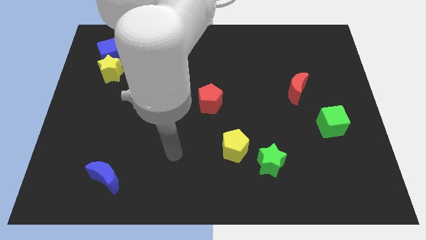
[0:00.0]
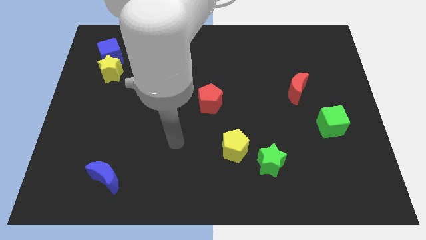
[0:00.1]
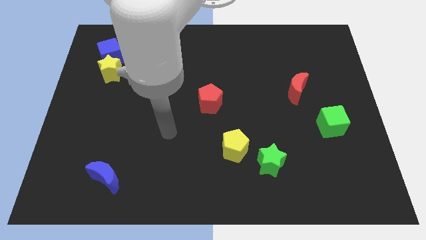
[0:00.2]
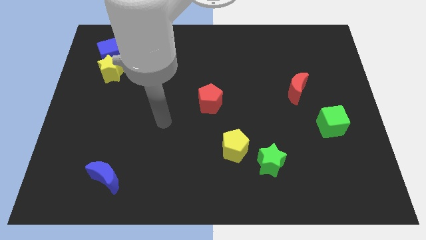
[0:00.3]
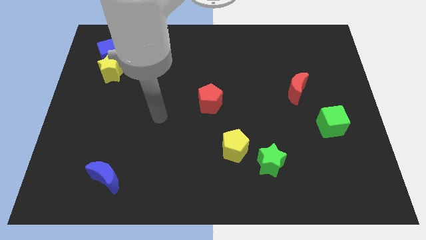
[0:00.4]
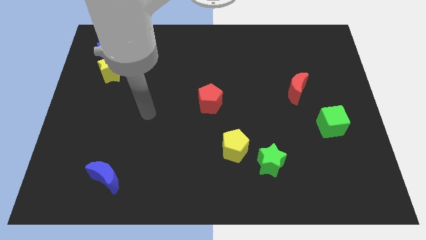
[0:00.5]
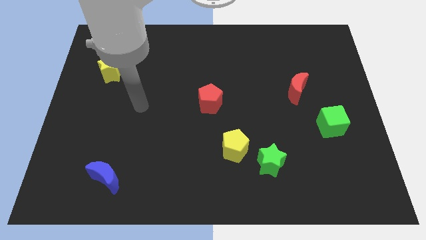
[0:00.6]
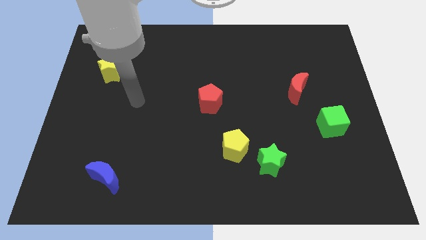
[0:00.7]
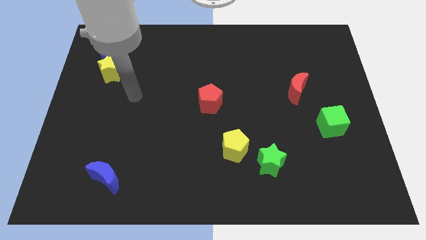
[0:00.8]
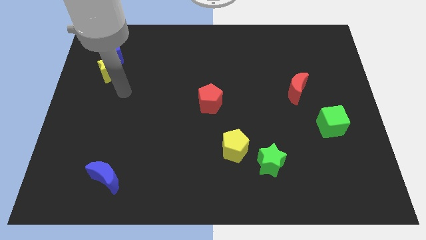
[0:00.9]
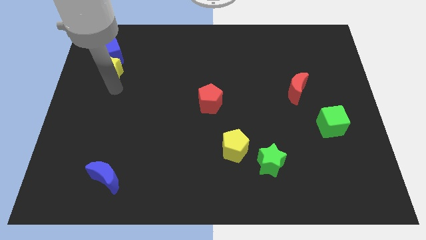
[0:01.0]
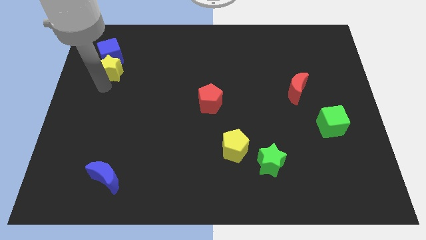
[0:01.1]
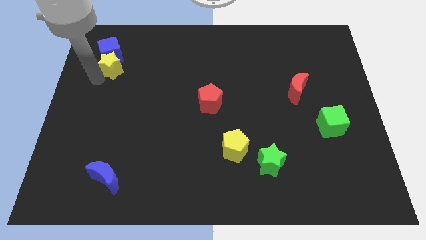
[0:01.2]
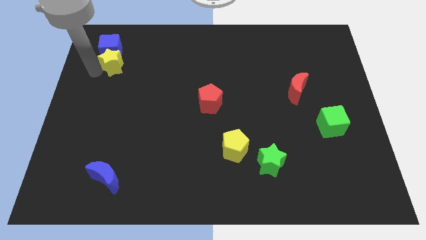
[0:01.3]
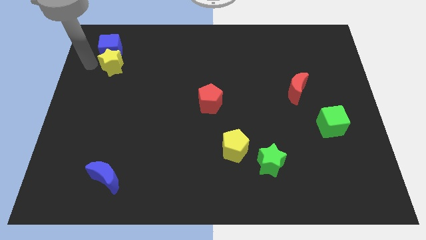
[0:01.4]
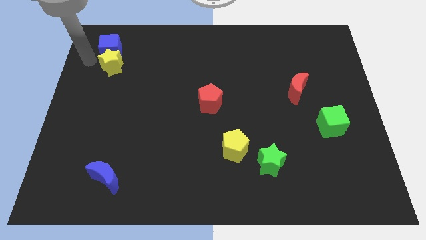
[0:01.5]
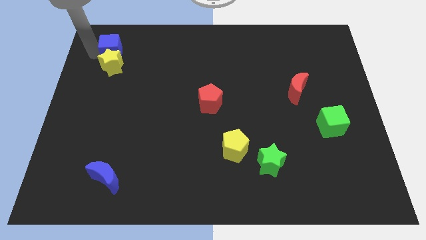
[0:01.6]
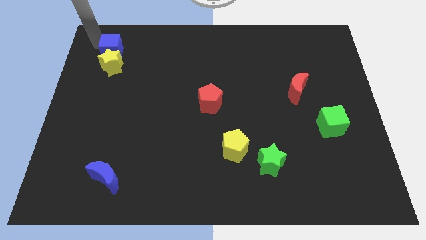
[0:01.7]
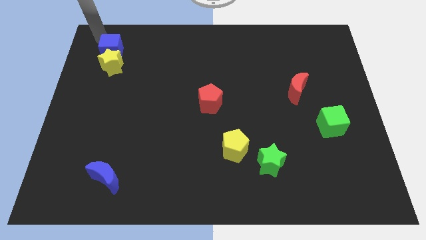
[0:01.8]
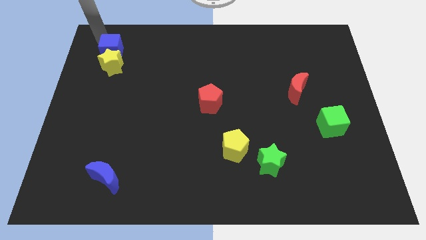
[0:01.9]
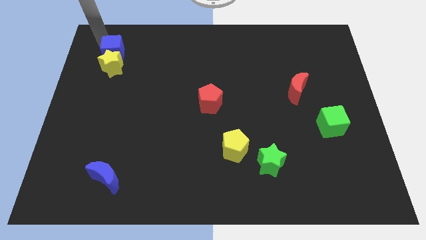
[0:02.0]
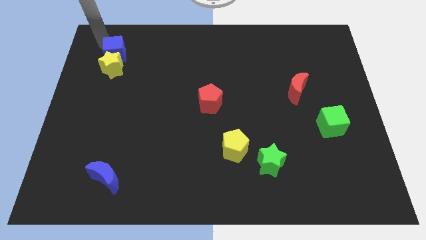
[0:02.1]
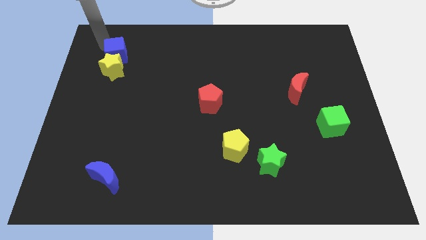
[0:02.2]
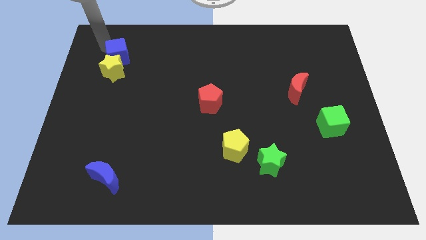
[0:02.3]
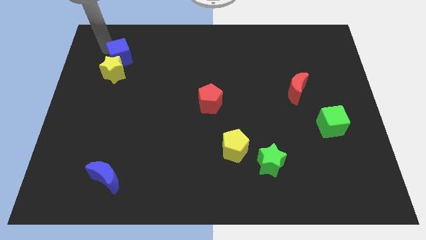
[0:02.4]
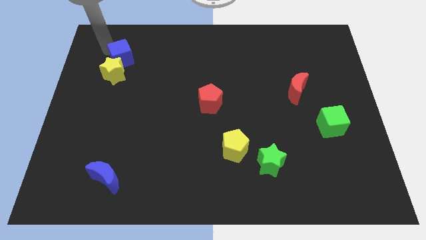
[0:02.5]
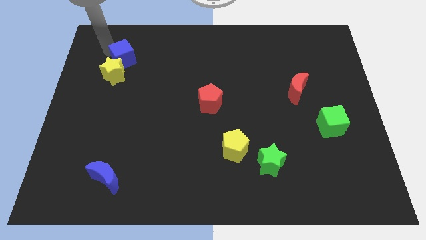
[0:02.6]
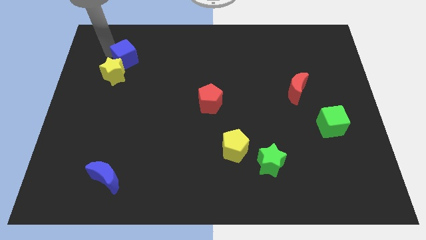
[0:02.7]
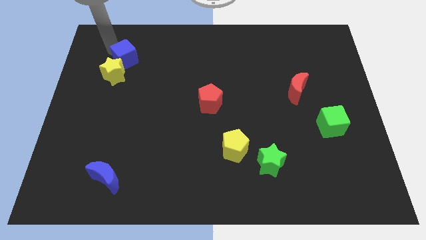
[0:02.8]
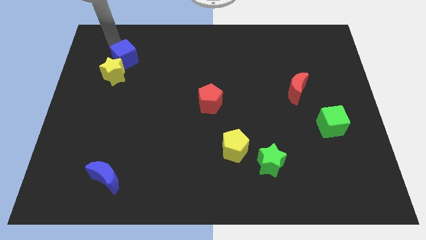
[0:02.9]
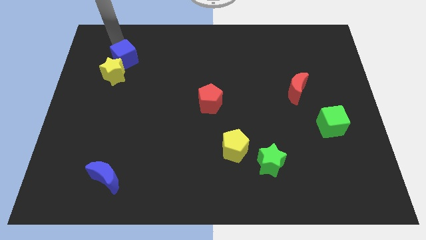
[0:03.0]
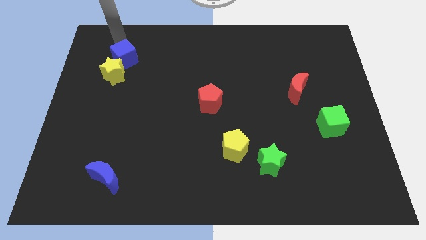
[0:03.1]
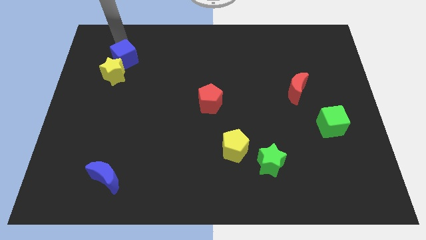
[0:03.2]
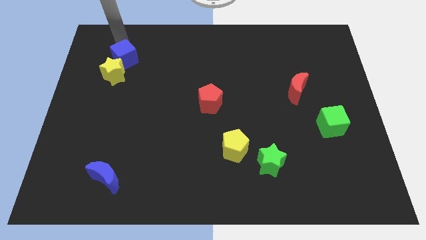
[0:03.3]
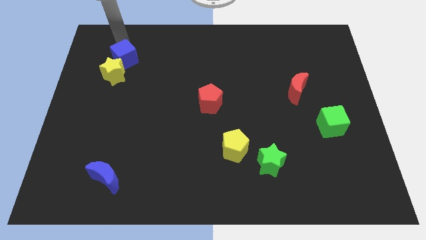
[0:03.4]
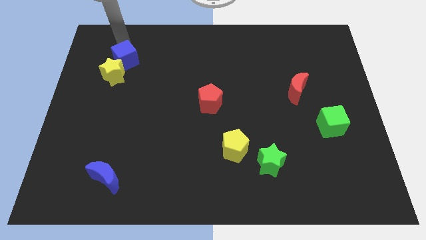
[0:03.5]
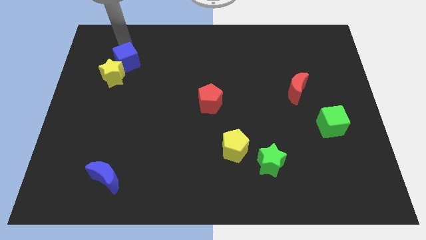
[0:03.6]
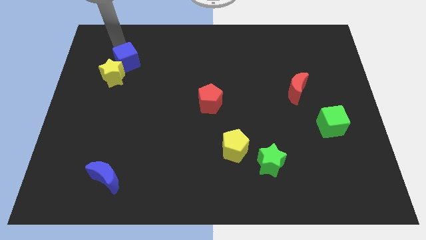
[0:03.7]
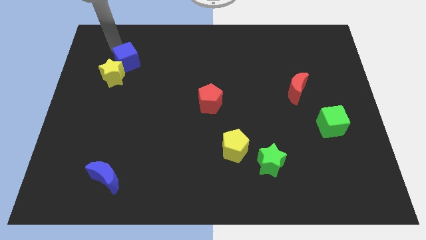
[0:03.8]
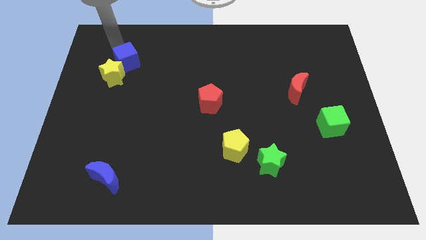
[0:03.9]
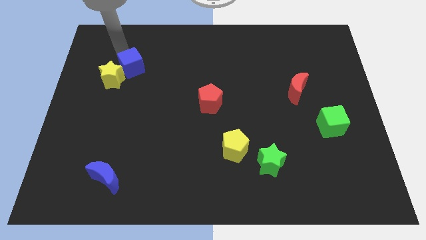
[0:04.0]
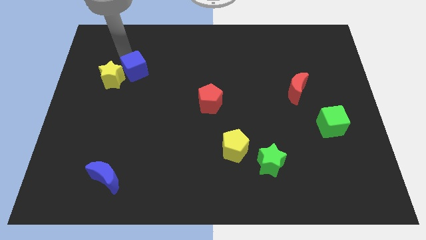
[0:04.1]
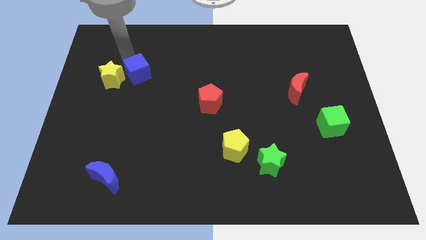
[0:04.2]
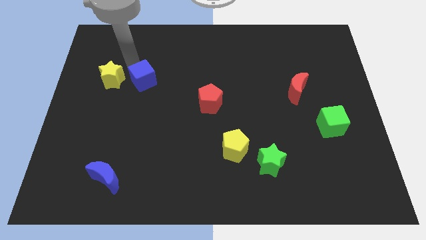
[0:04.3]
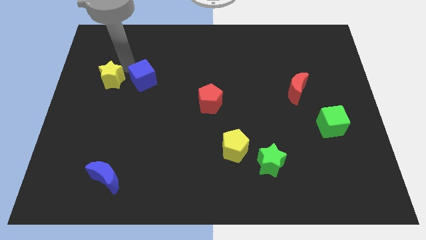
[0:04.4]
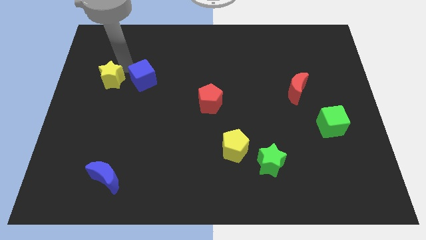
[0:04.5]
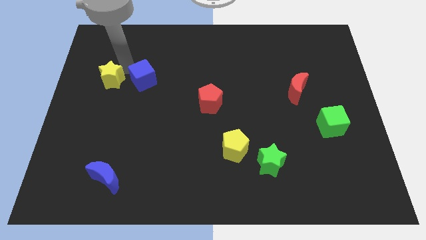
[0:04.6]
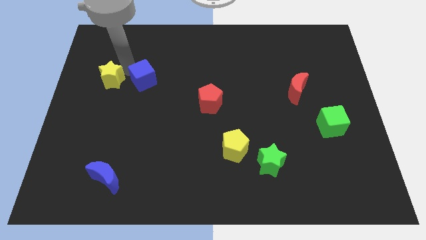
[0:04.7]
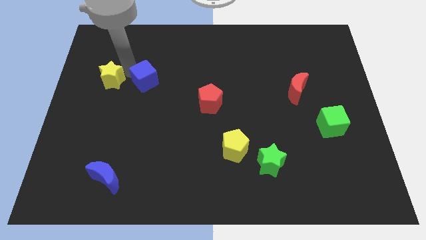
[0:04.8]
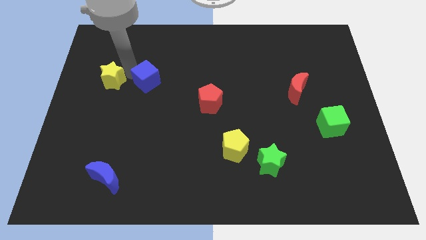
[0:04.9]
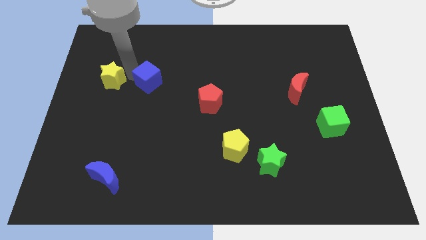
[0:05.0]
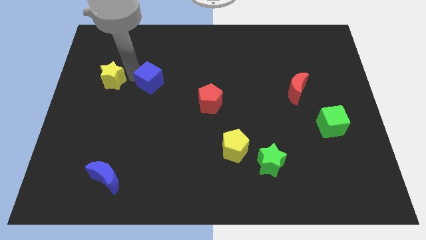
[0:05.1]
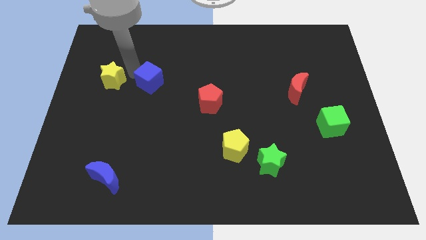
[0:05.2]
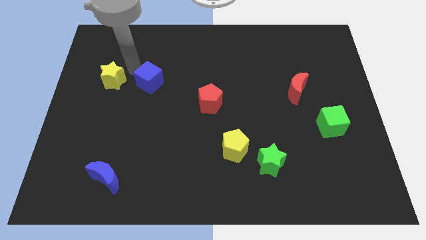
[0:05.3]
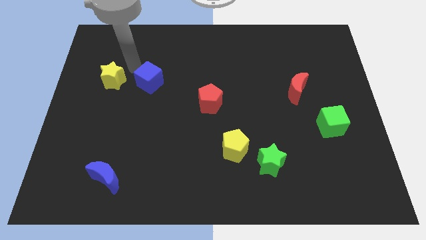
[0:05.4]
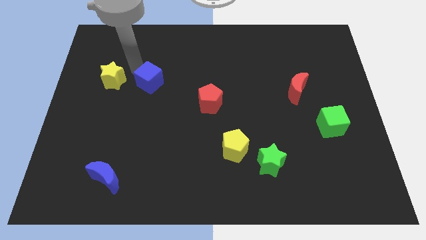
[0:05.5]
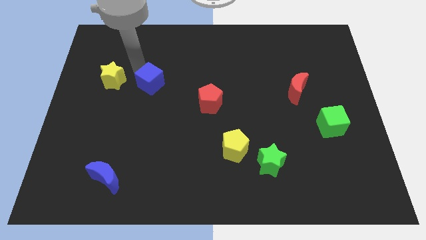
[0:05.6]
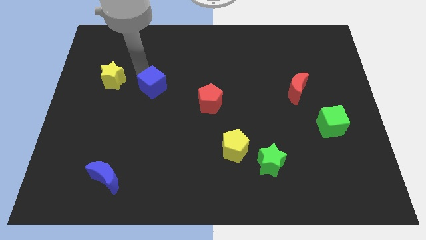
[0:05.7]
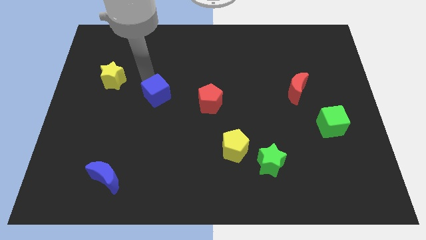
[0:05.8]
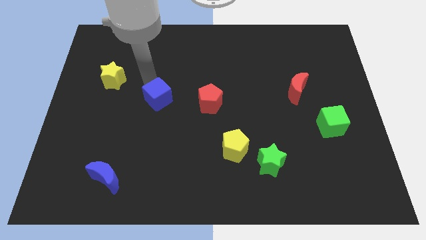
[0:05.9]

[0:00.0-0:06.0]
move the blue cube downwards and right diagonally

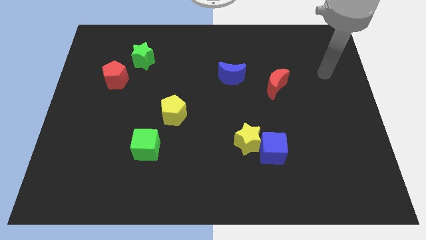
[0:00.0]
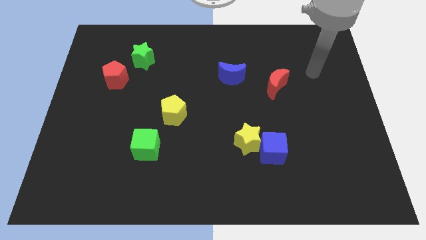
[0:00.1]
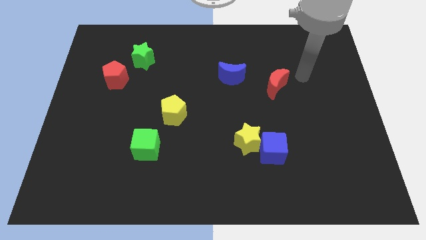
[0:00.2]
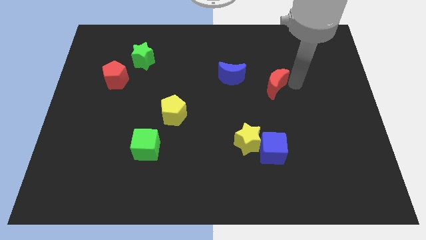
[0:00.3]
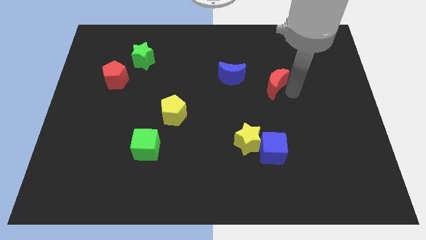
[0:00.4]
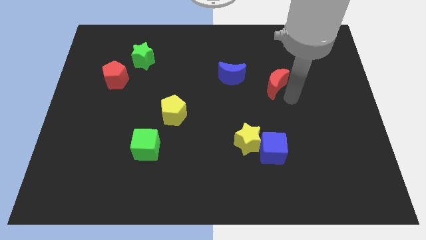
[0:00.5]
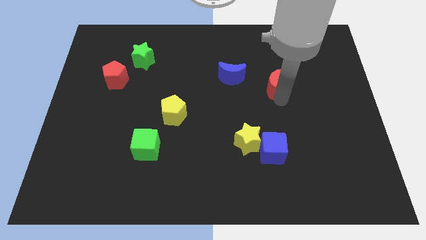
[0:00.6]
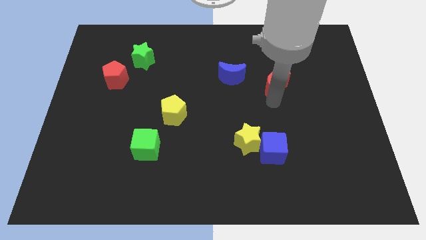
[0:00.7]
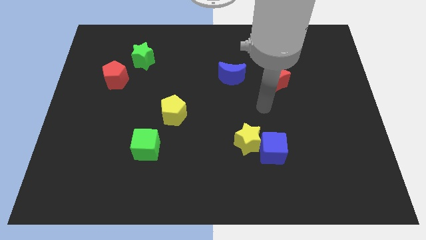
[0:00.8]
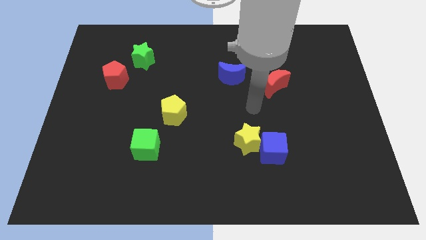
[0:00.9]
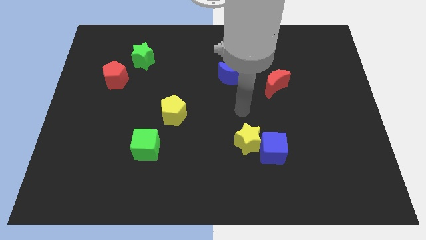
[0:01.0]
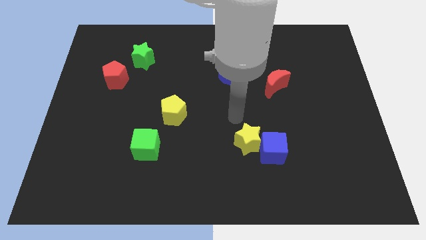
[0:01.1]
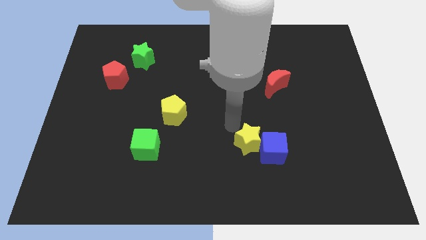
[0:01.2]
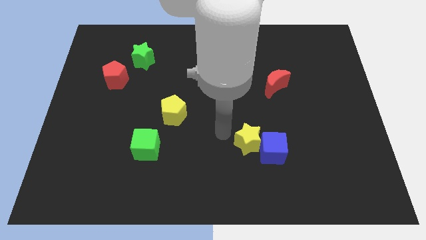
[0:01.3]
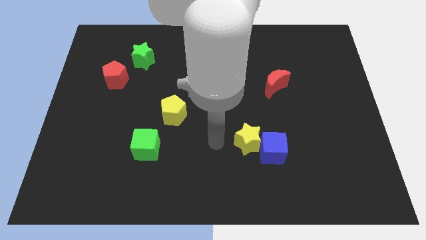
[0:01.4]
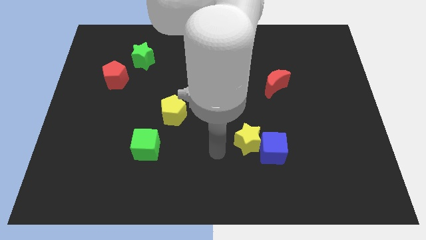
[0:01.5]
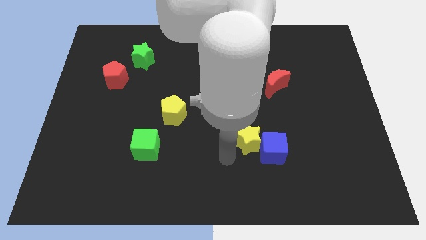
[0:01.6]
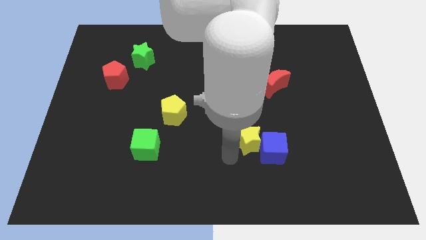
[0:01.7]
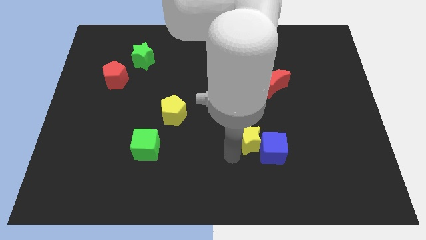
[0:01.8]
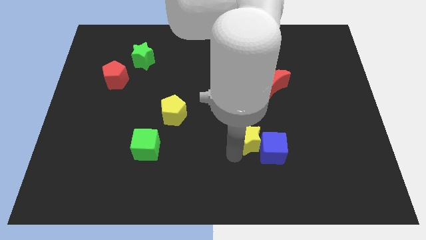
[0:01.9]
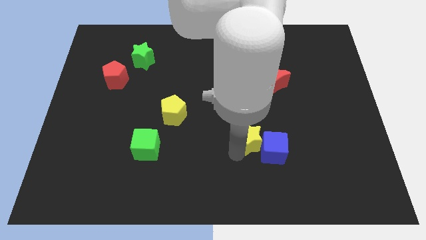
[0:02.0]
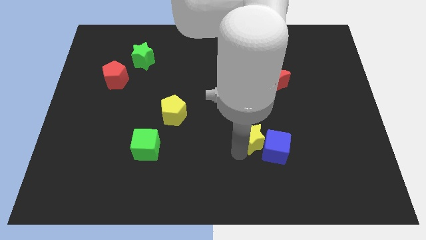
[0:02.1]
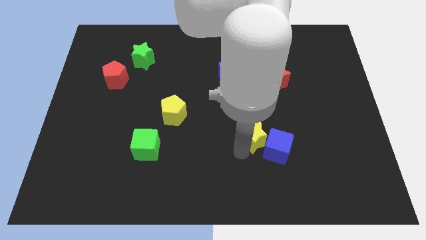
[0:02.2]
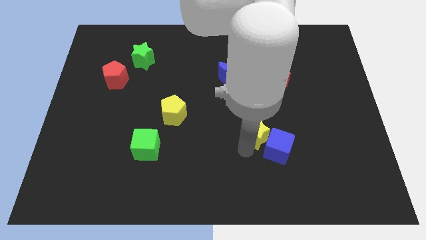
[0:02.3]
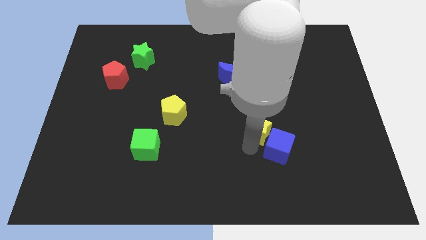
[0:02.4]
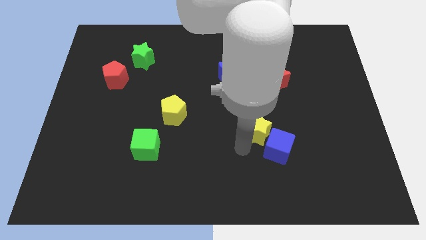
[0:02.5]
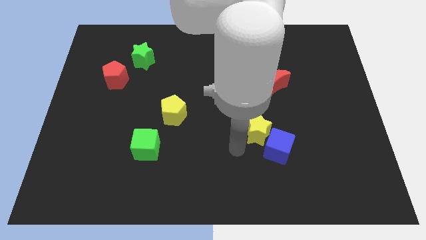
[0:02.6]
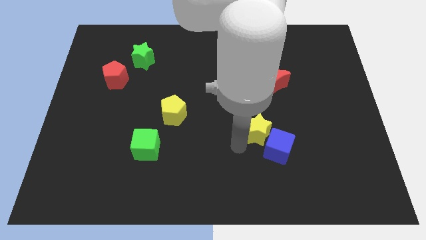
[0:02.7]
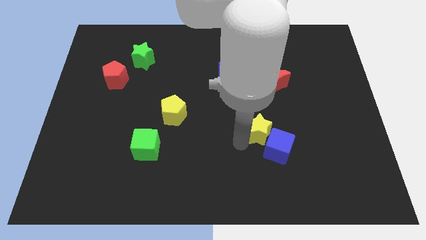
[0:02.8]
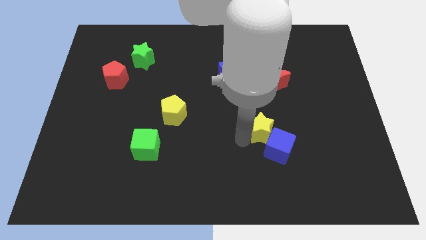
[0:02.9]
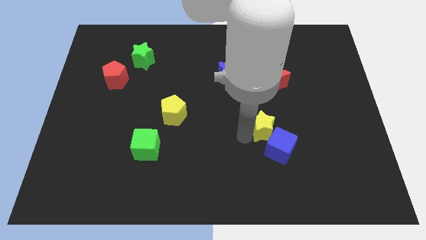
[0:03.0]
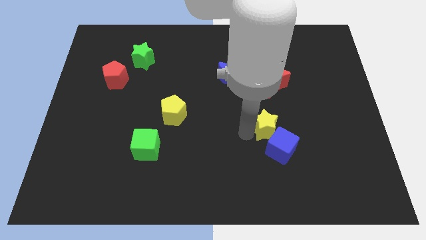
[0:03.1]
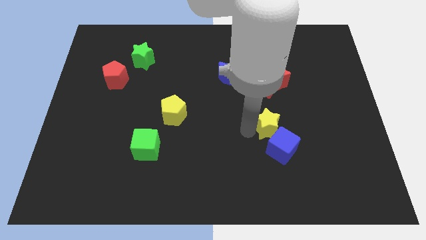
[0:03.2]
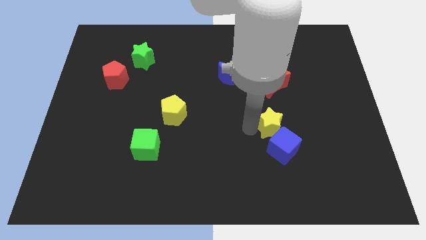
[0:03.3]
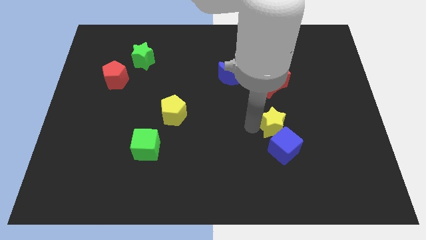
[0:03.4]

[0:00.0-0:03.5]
slide the yellow star up and then to the right a bit
